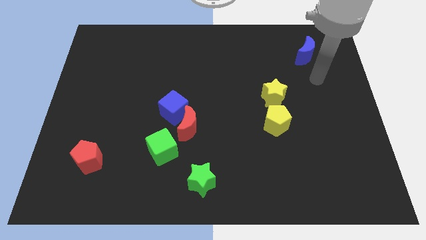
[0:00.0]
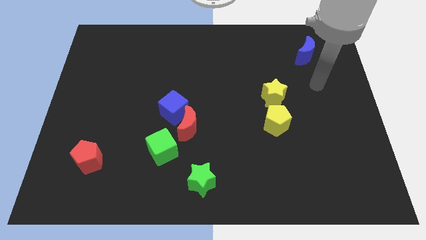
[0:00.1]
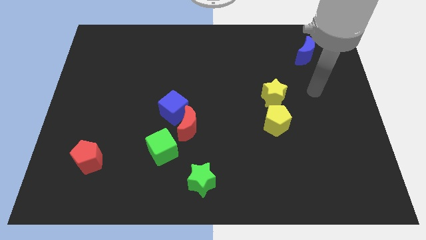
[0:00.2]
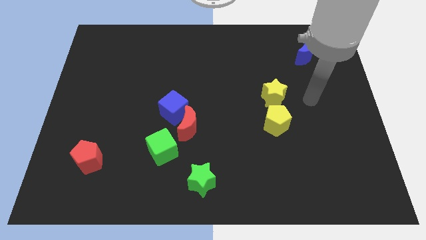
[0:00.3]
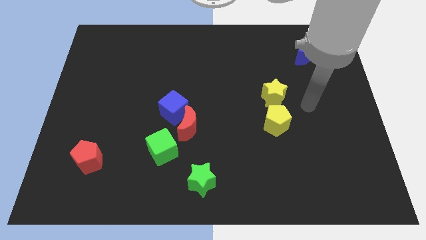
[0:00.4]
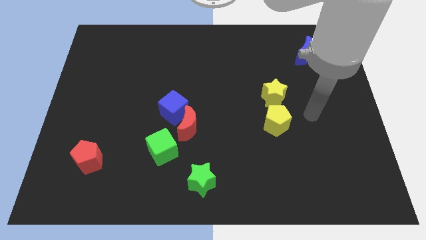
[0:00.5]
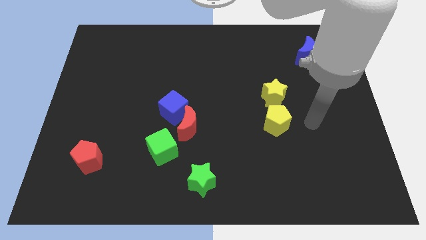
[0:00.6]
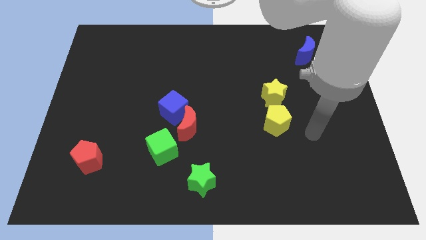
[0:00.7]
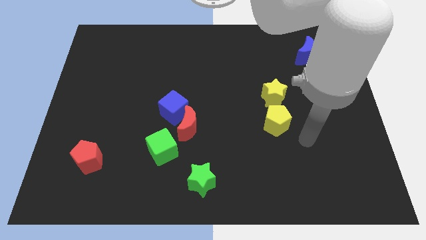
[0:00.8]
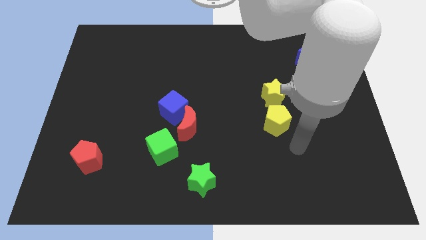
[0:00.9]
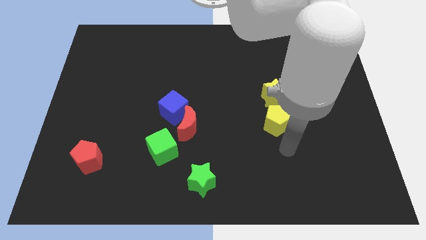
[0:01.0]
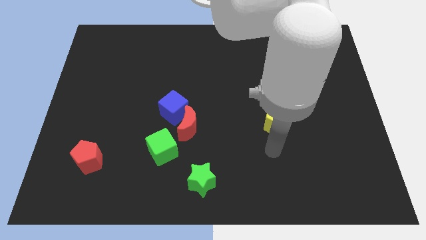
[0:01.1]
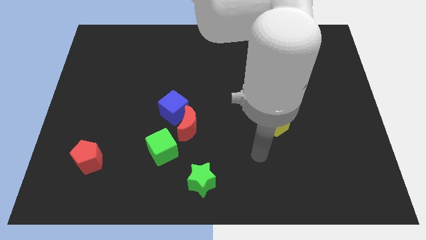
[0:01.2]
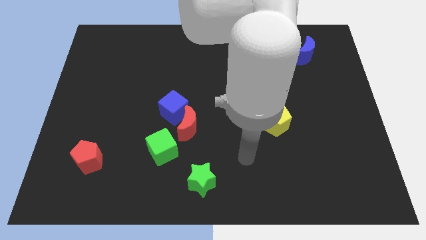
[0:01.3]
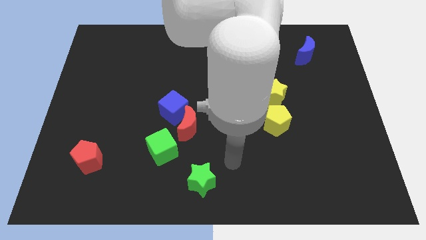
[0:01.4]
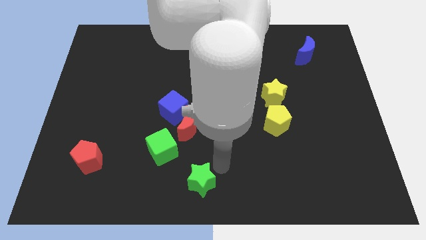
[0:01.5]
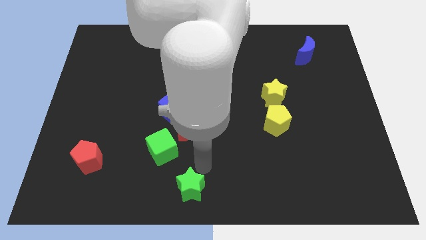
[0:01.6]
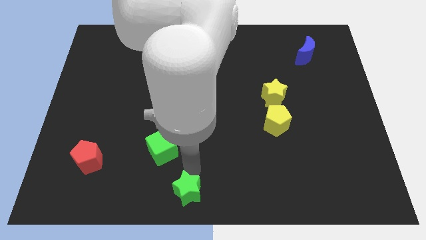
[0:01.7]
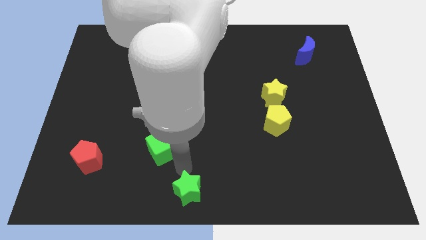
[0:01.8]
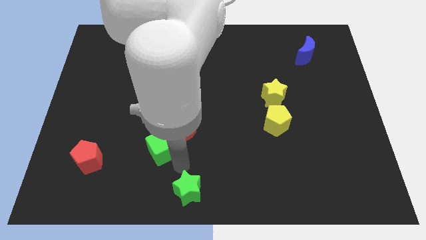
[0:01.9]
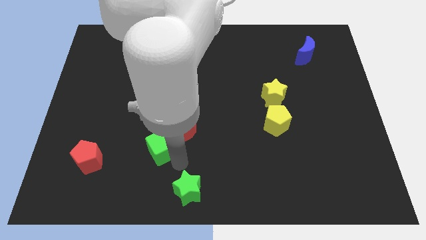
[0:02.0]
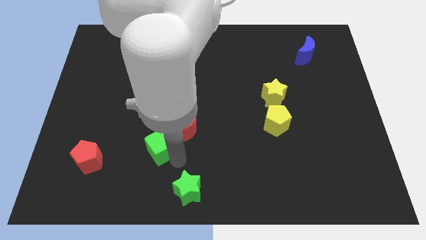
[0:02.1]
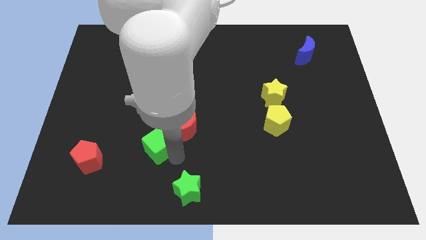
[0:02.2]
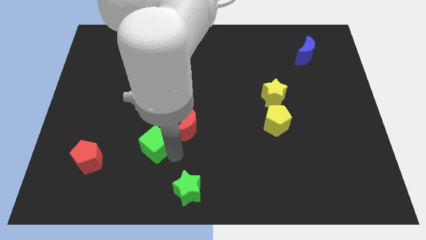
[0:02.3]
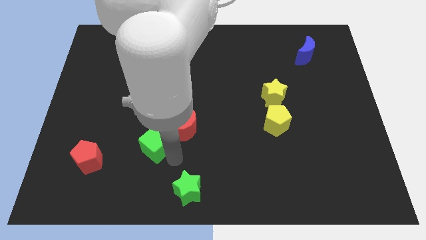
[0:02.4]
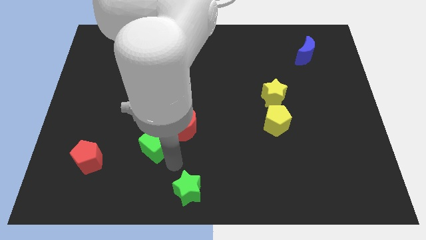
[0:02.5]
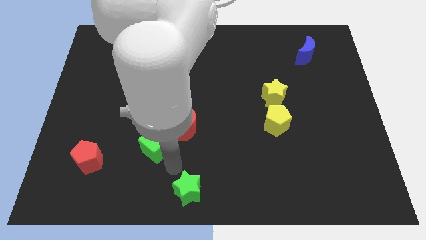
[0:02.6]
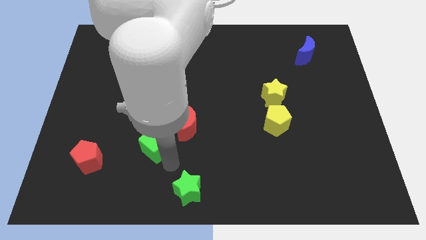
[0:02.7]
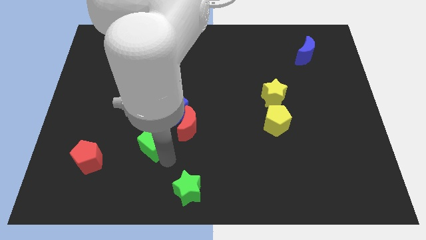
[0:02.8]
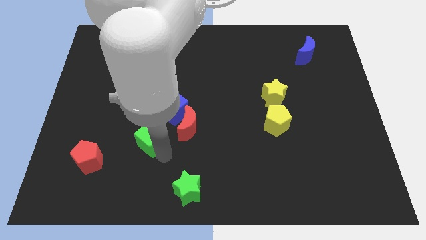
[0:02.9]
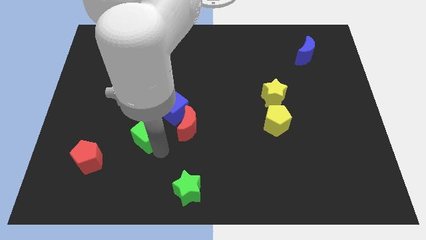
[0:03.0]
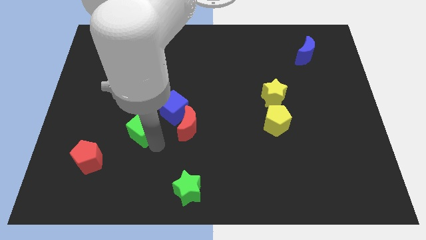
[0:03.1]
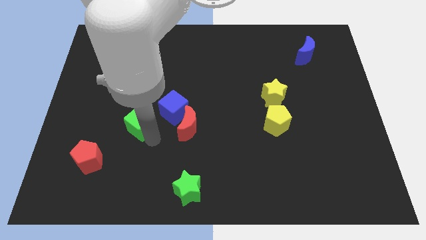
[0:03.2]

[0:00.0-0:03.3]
push the green cube somewhat upwards and left

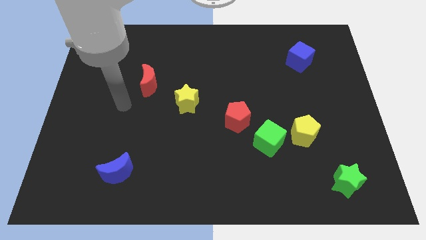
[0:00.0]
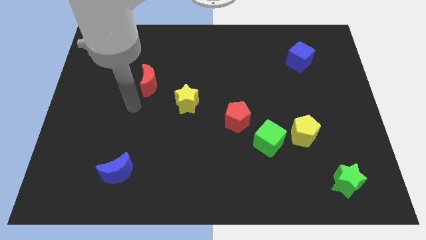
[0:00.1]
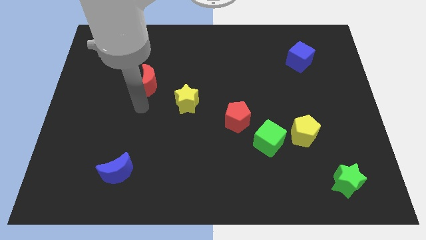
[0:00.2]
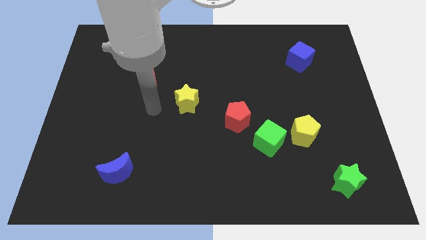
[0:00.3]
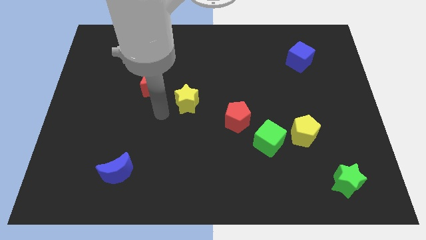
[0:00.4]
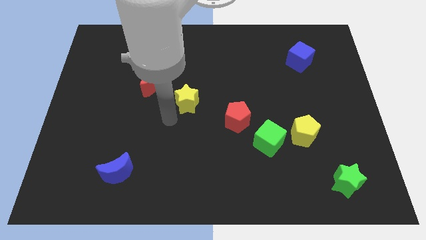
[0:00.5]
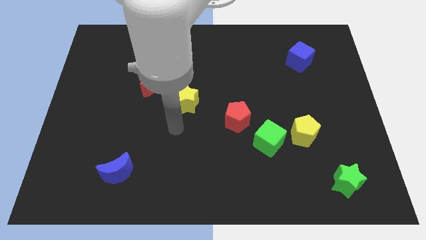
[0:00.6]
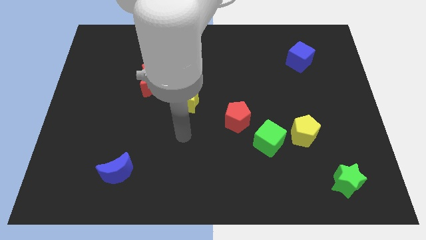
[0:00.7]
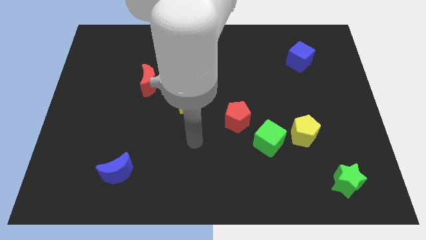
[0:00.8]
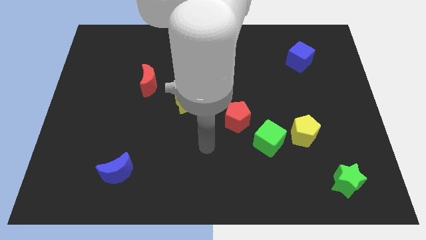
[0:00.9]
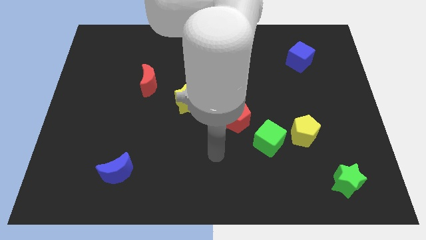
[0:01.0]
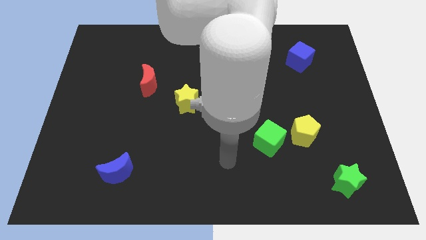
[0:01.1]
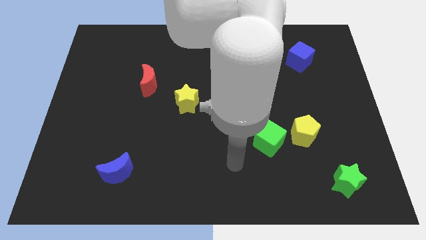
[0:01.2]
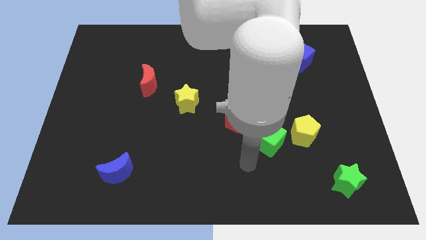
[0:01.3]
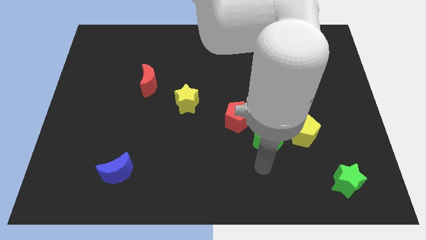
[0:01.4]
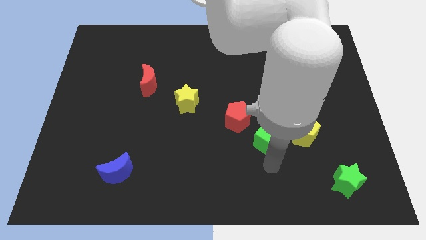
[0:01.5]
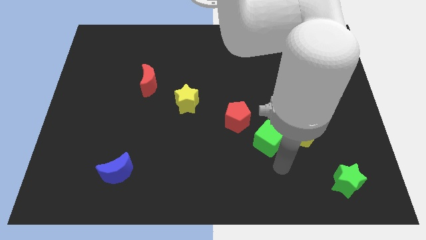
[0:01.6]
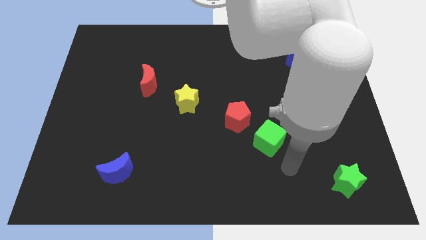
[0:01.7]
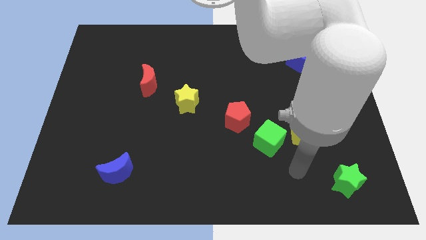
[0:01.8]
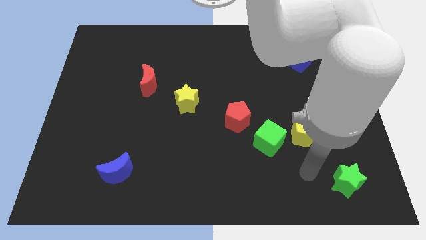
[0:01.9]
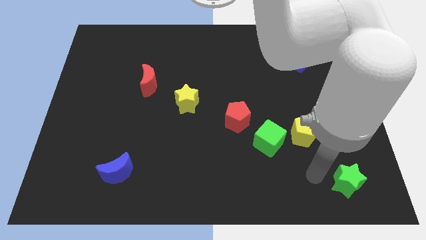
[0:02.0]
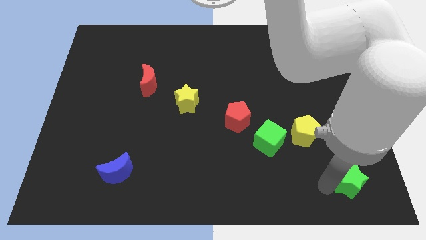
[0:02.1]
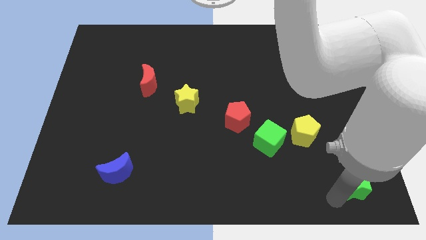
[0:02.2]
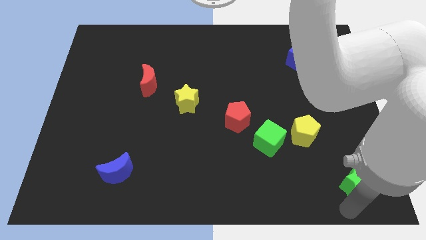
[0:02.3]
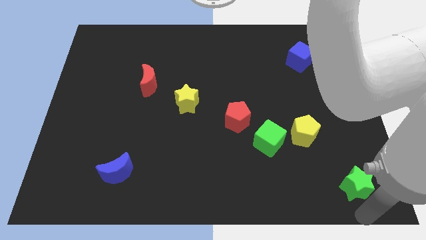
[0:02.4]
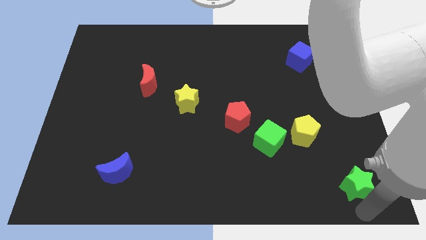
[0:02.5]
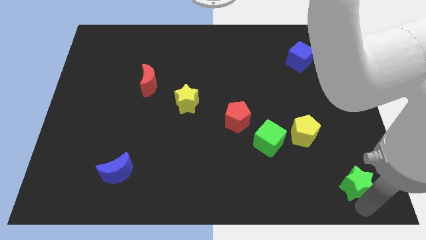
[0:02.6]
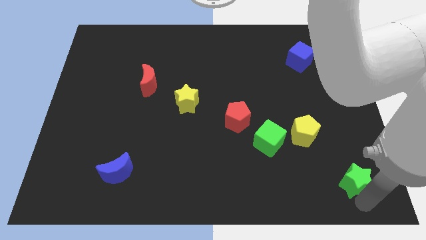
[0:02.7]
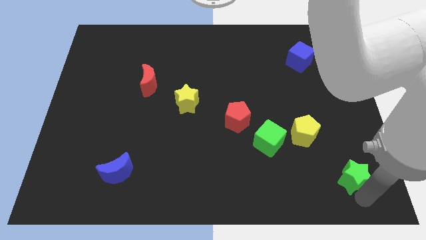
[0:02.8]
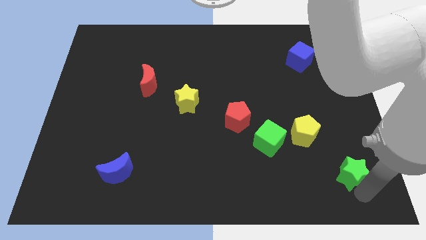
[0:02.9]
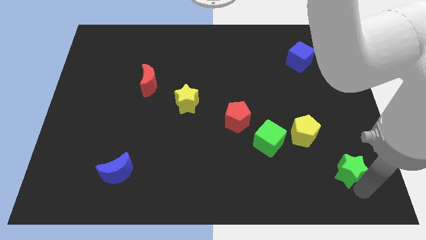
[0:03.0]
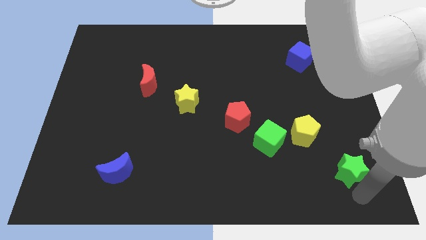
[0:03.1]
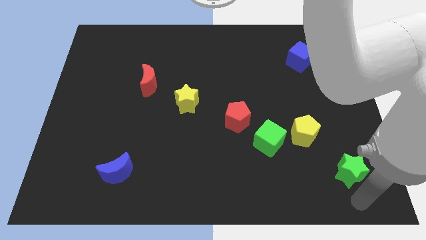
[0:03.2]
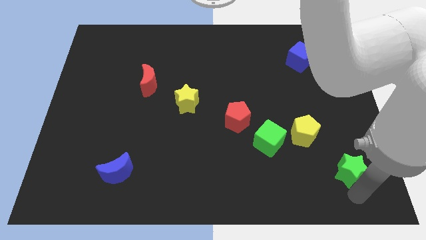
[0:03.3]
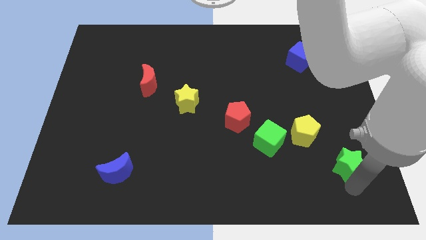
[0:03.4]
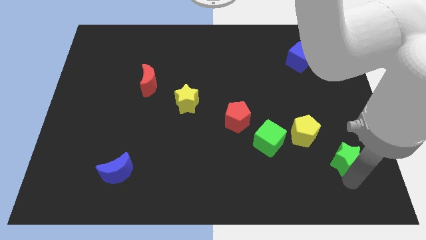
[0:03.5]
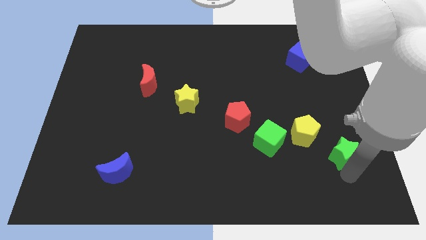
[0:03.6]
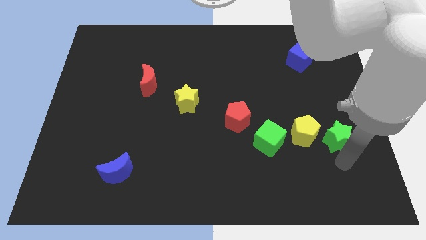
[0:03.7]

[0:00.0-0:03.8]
move the green star upwards slightly

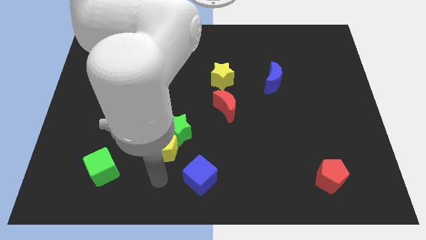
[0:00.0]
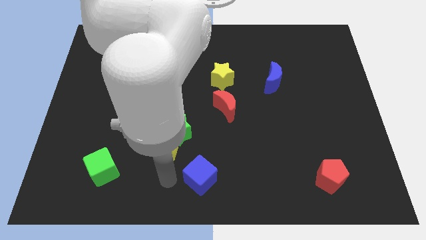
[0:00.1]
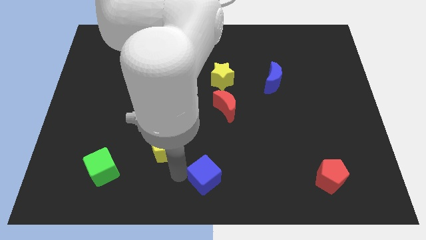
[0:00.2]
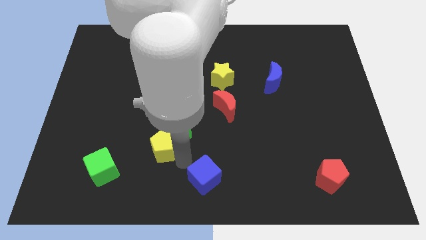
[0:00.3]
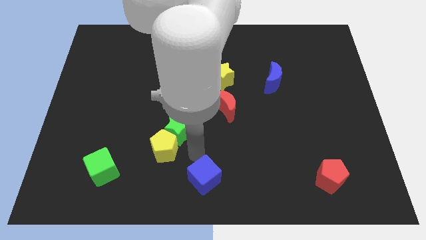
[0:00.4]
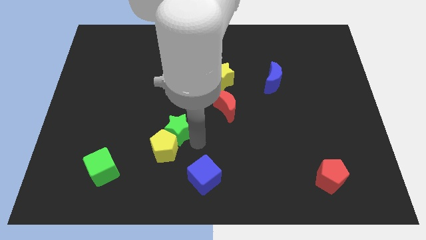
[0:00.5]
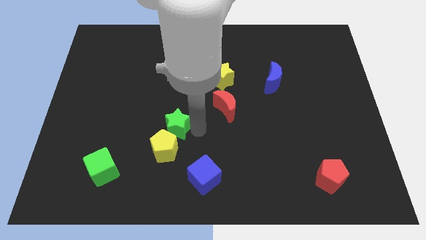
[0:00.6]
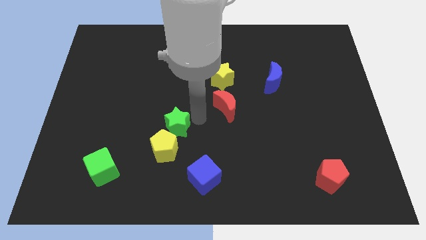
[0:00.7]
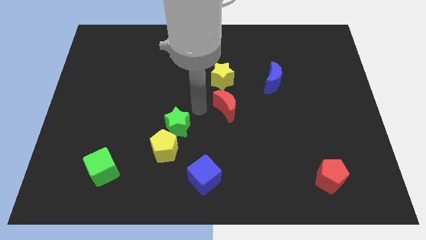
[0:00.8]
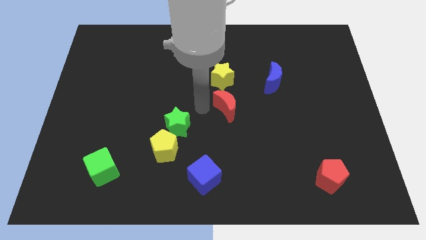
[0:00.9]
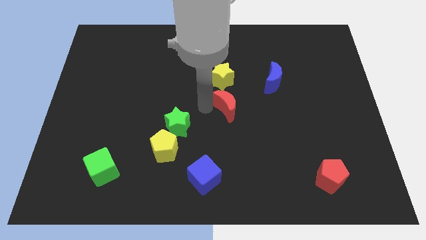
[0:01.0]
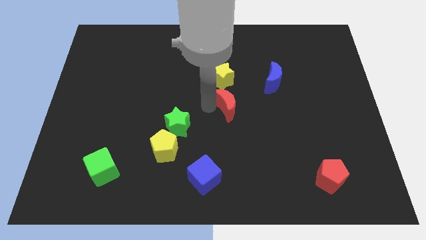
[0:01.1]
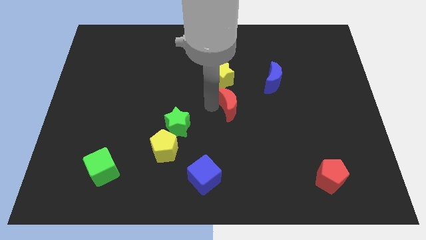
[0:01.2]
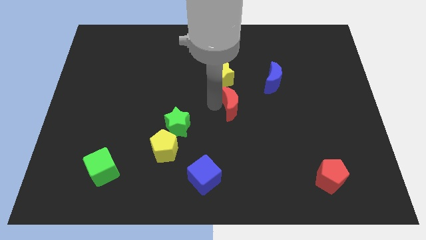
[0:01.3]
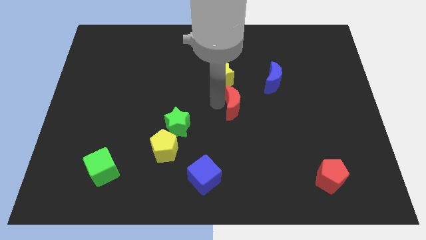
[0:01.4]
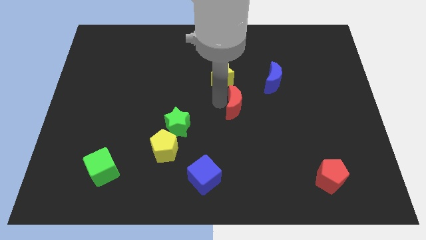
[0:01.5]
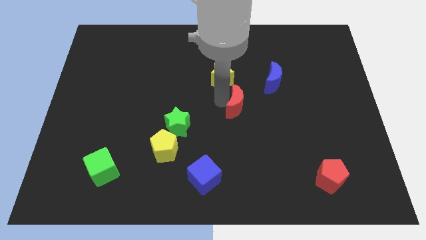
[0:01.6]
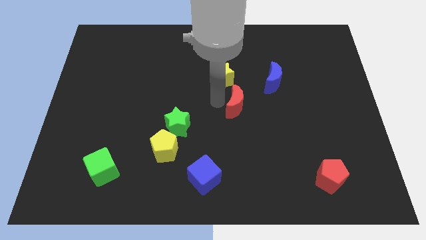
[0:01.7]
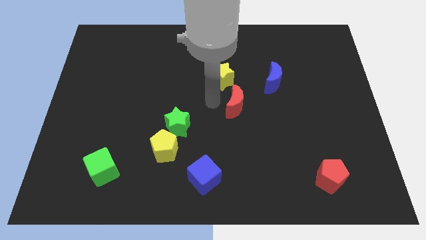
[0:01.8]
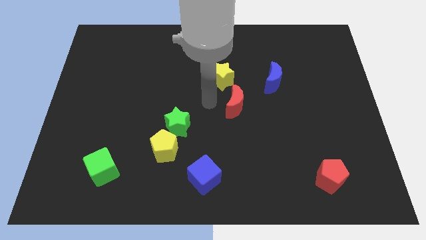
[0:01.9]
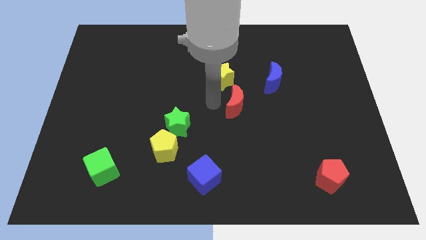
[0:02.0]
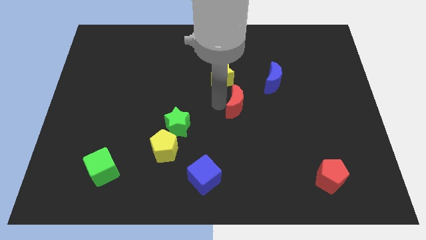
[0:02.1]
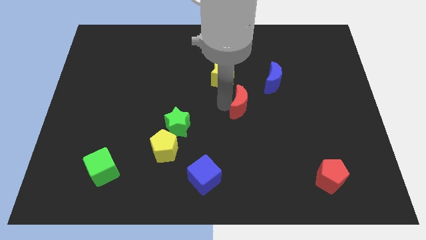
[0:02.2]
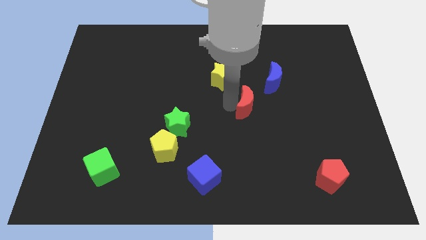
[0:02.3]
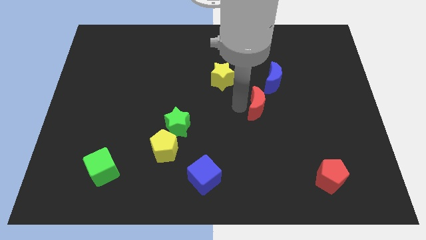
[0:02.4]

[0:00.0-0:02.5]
slightly slide the red moon to the right
